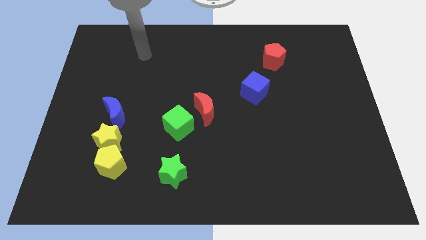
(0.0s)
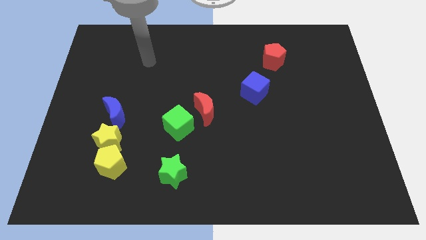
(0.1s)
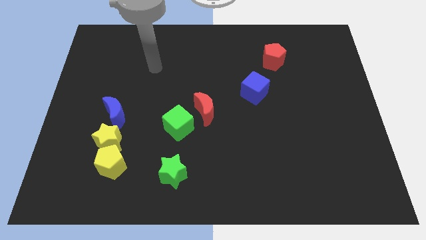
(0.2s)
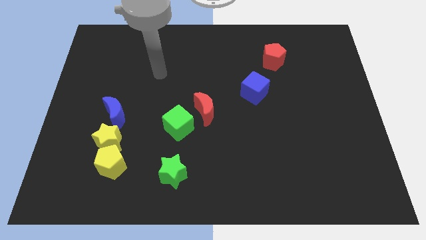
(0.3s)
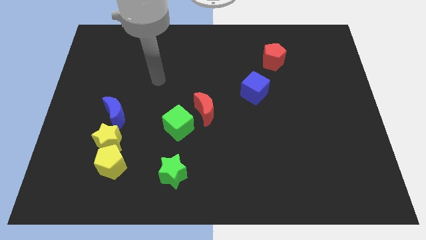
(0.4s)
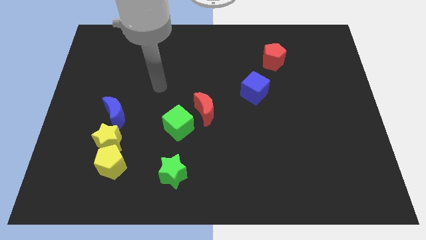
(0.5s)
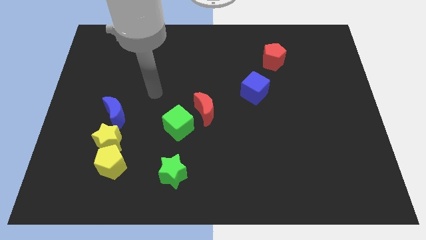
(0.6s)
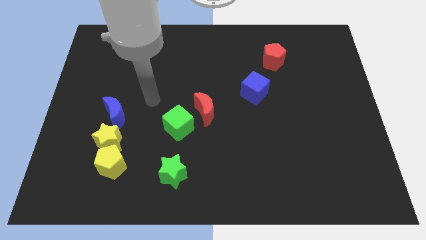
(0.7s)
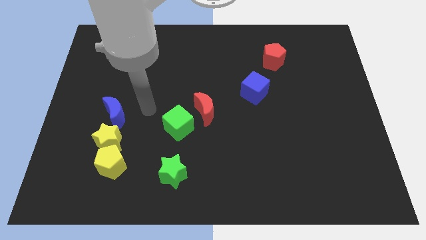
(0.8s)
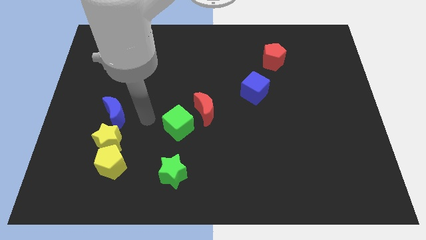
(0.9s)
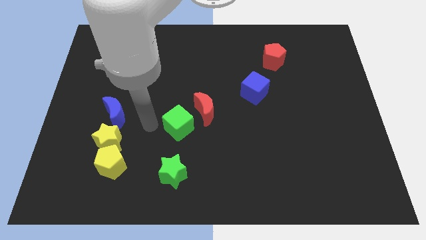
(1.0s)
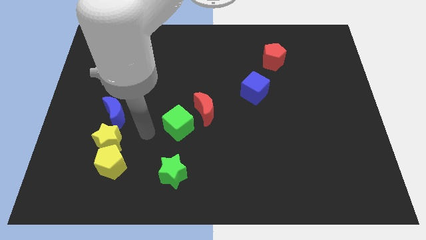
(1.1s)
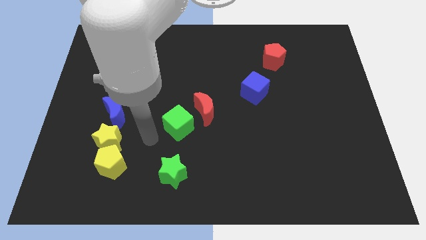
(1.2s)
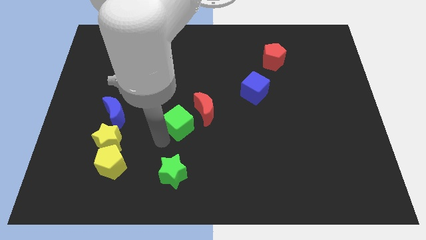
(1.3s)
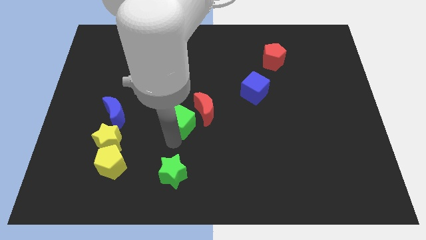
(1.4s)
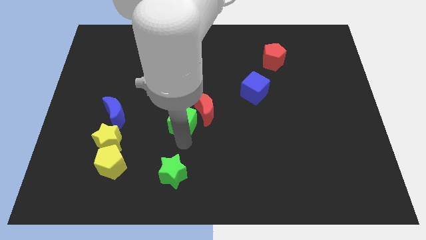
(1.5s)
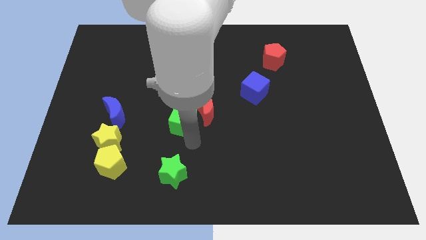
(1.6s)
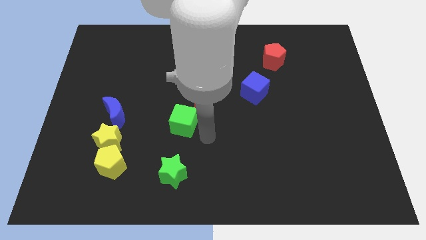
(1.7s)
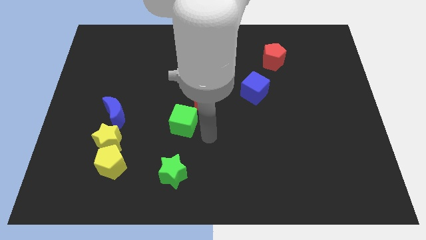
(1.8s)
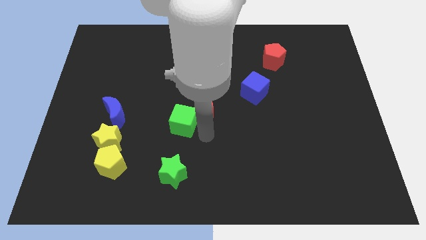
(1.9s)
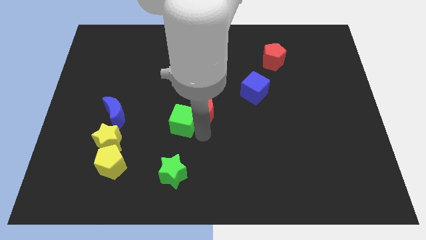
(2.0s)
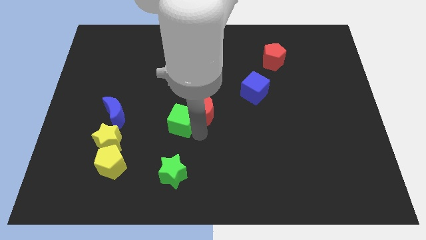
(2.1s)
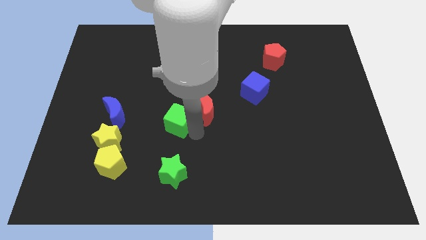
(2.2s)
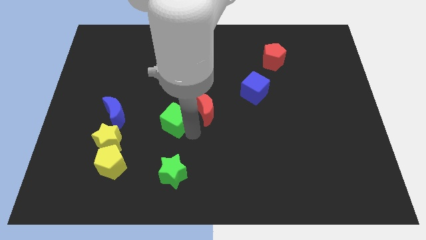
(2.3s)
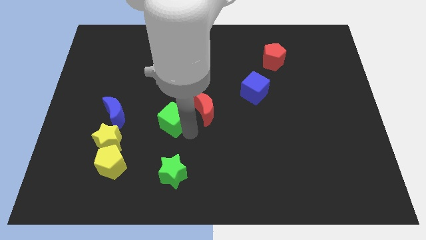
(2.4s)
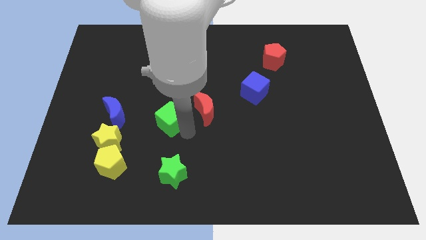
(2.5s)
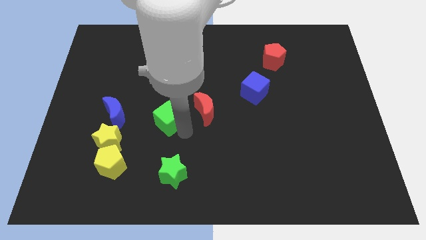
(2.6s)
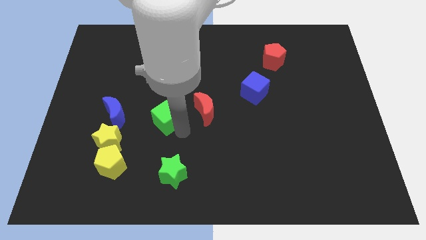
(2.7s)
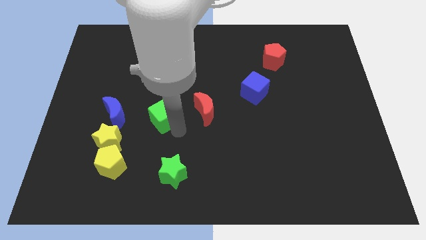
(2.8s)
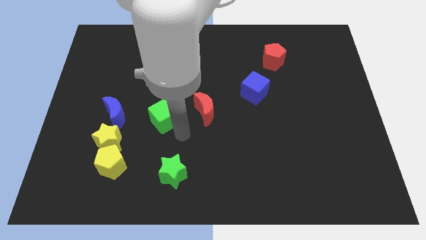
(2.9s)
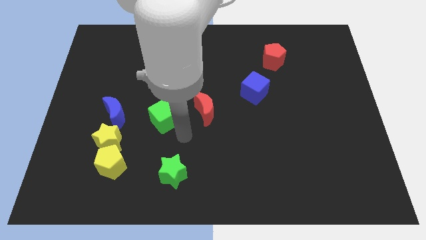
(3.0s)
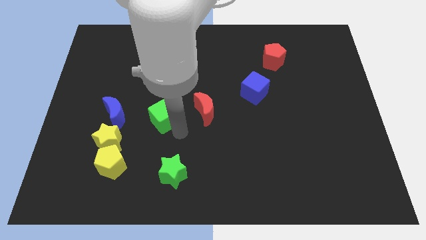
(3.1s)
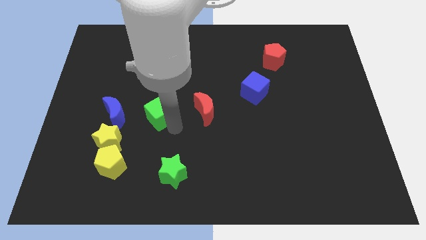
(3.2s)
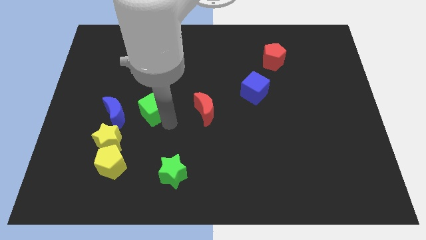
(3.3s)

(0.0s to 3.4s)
slide the green cube a bit up and left diagonally

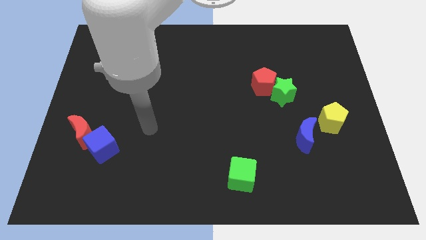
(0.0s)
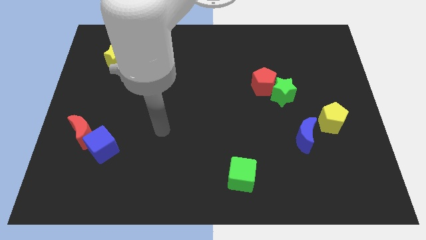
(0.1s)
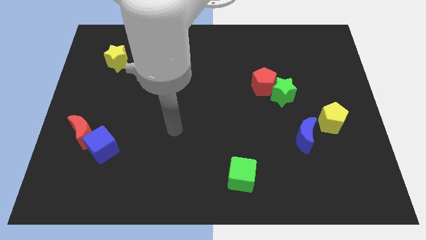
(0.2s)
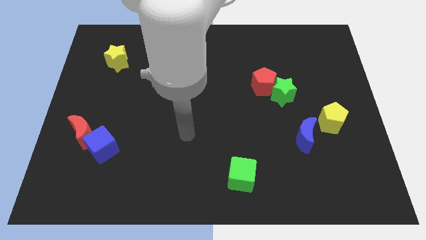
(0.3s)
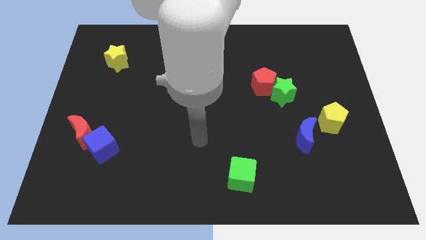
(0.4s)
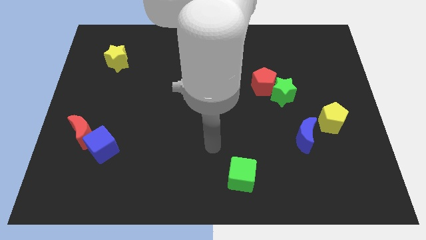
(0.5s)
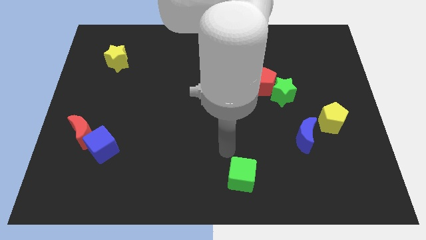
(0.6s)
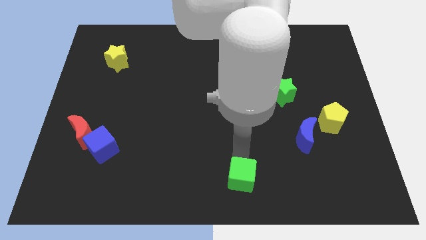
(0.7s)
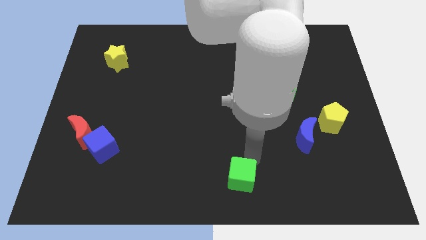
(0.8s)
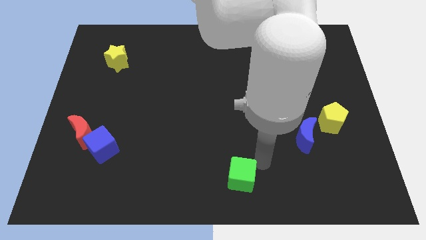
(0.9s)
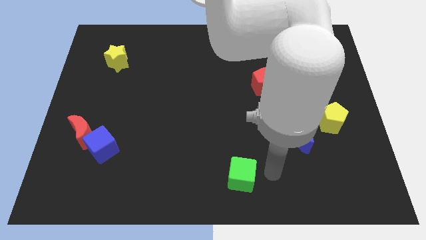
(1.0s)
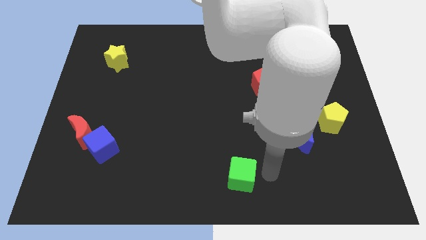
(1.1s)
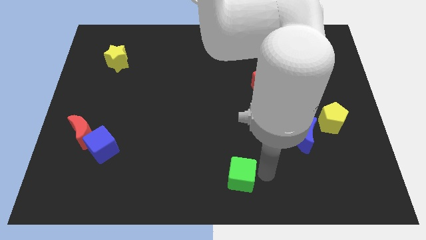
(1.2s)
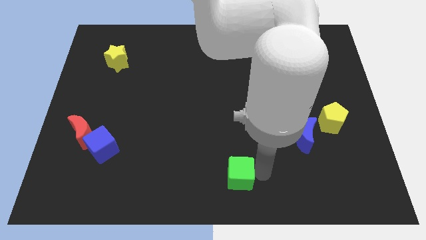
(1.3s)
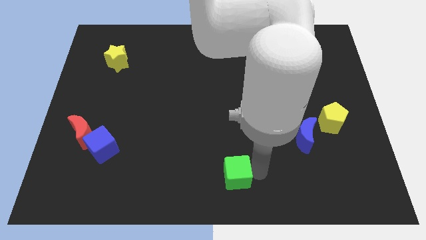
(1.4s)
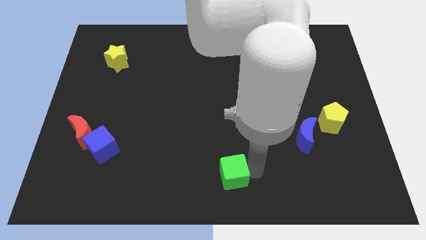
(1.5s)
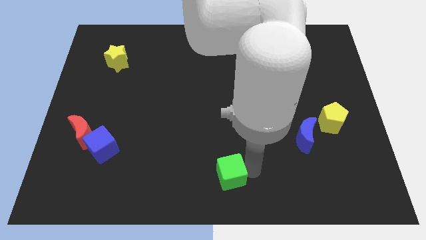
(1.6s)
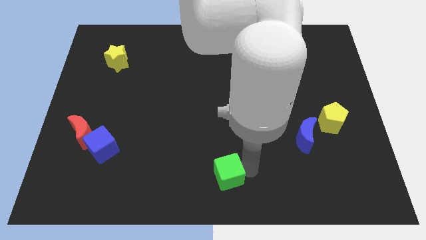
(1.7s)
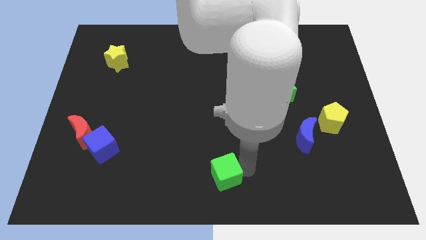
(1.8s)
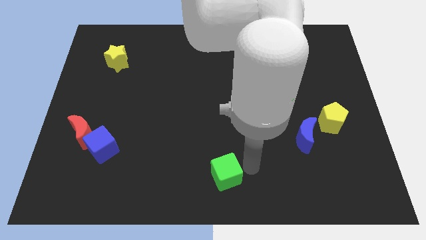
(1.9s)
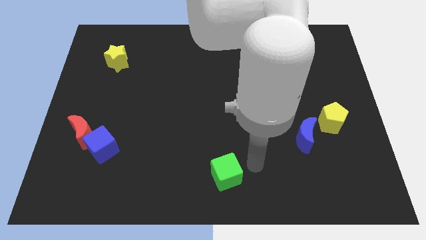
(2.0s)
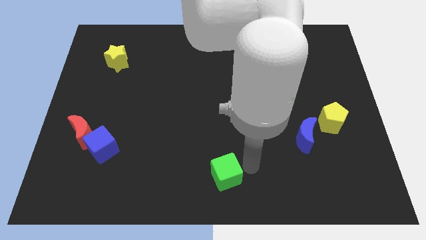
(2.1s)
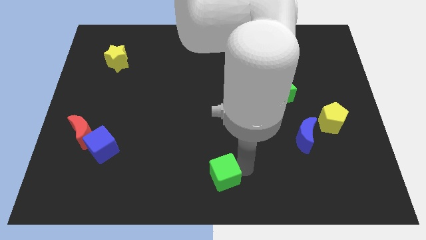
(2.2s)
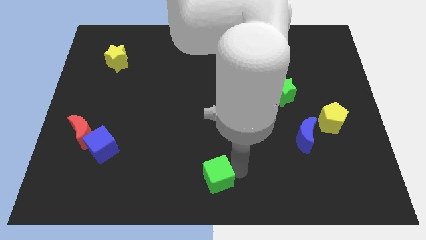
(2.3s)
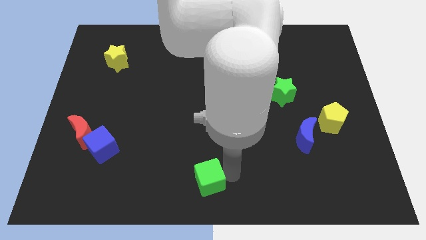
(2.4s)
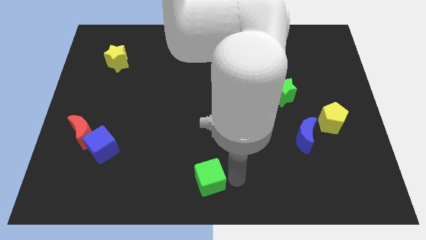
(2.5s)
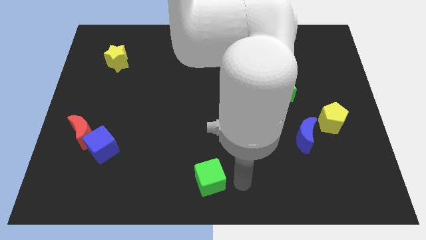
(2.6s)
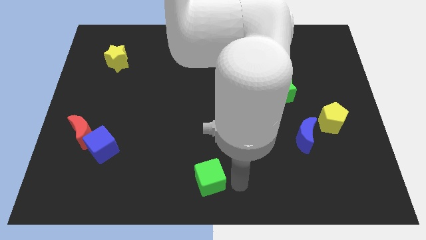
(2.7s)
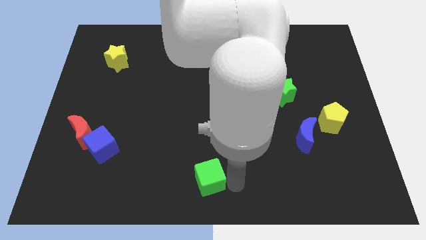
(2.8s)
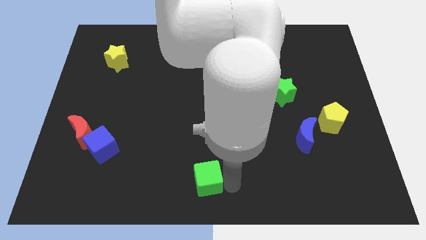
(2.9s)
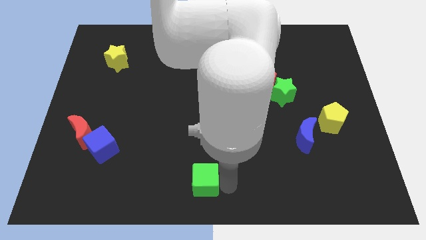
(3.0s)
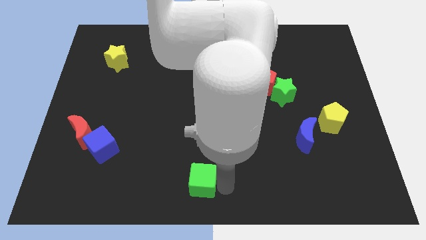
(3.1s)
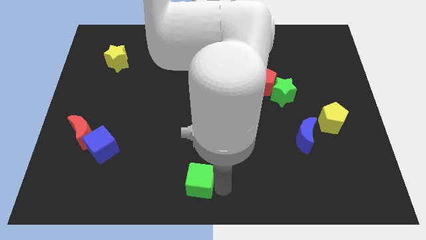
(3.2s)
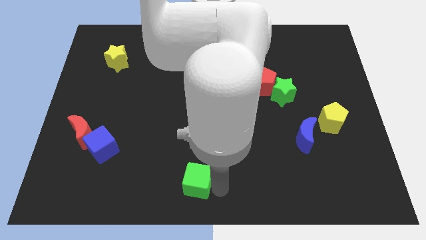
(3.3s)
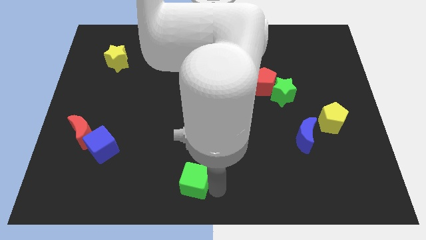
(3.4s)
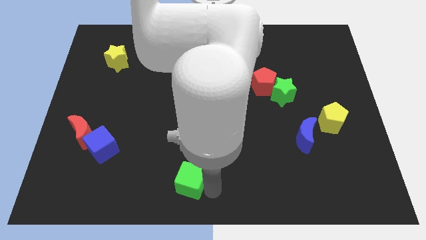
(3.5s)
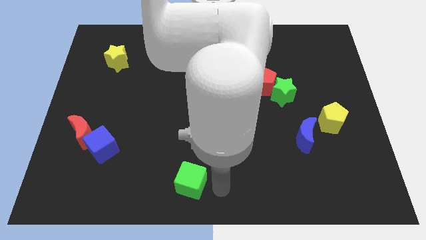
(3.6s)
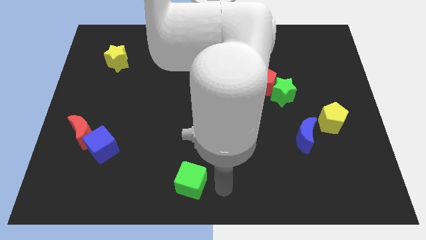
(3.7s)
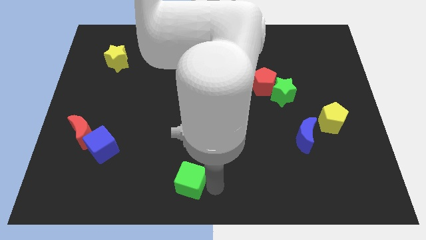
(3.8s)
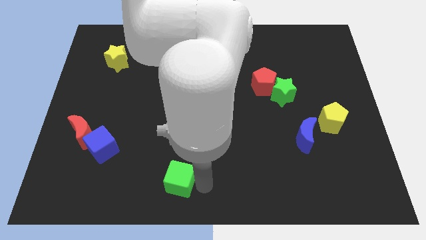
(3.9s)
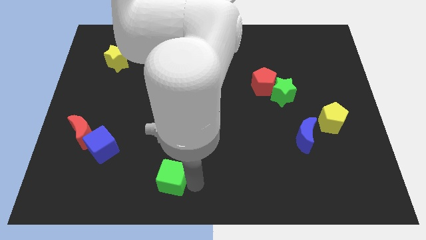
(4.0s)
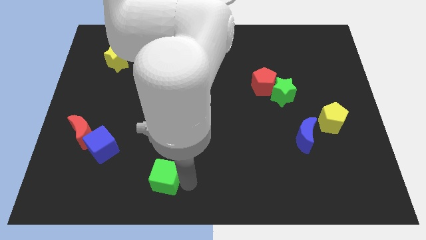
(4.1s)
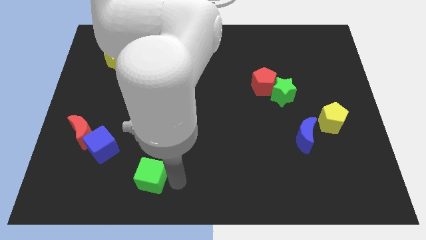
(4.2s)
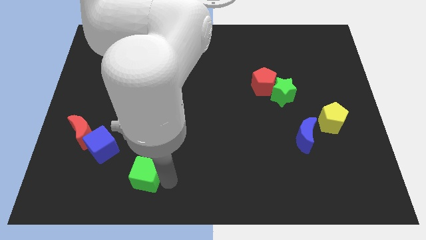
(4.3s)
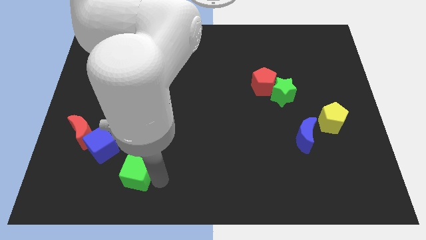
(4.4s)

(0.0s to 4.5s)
move the green cube to the left

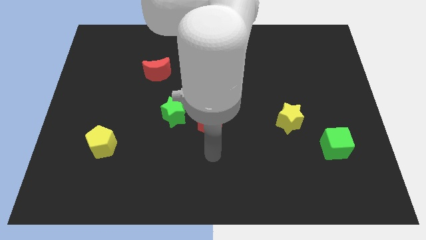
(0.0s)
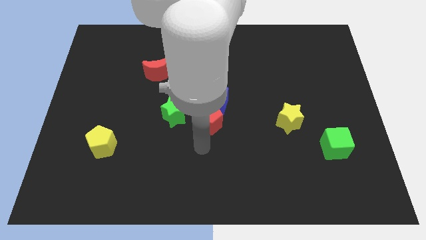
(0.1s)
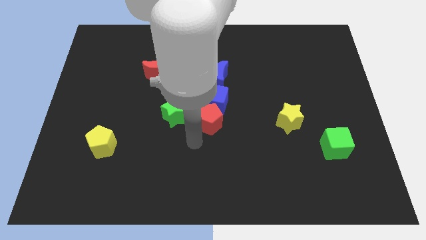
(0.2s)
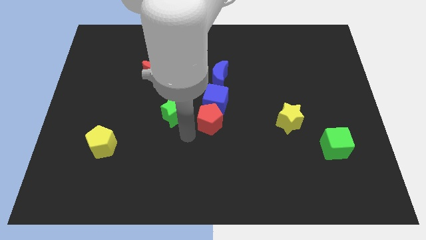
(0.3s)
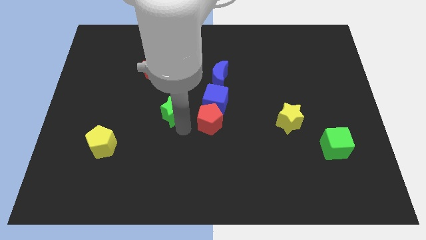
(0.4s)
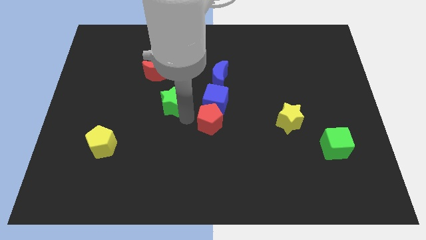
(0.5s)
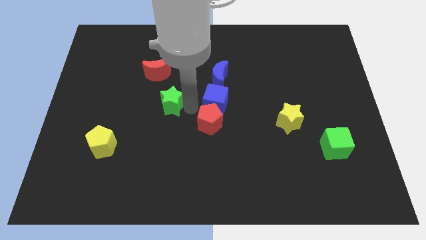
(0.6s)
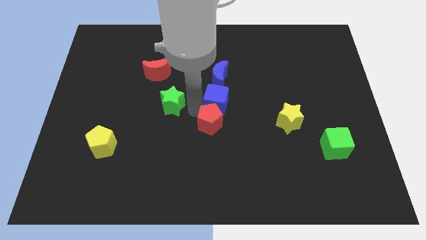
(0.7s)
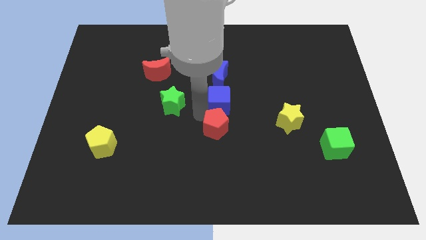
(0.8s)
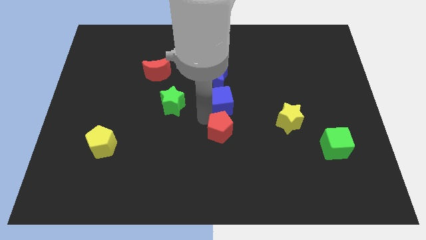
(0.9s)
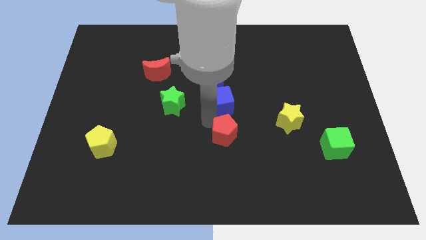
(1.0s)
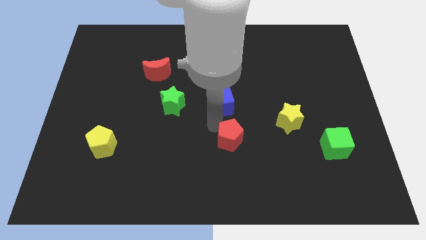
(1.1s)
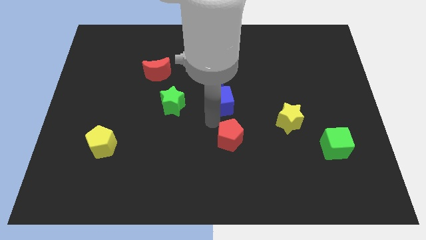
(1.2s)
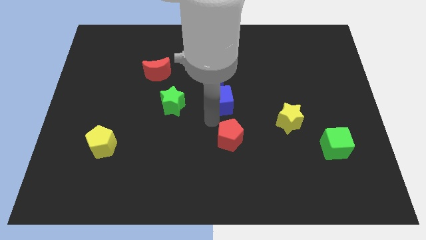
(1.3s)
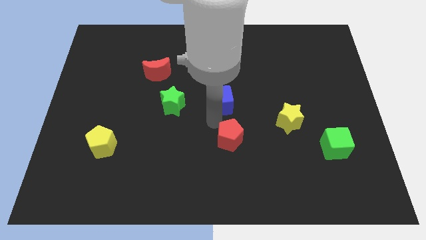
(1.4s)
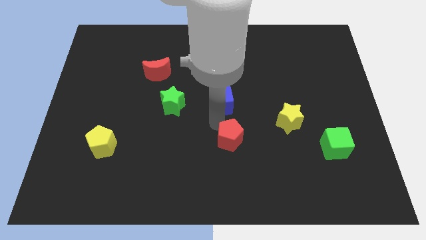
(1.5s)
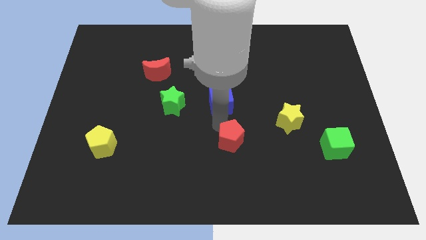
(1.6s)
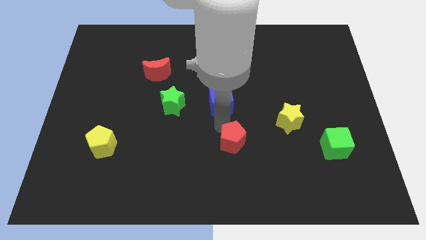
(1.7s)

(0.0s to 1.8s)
push the red pentagon downwards and right a little
